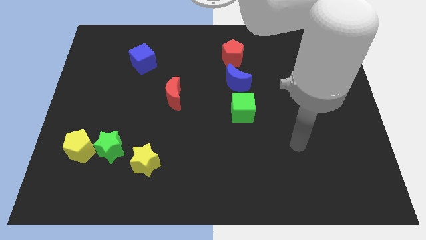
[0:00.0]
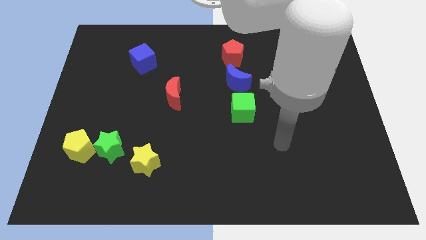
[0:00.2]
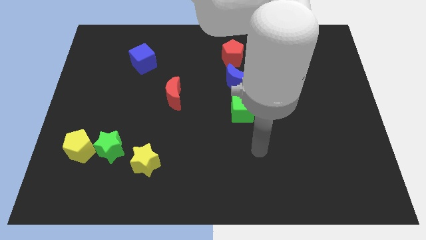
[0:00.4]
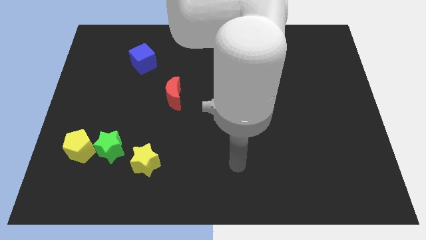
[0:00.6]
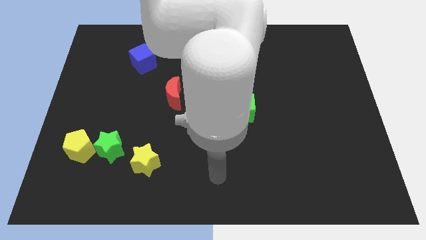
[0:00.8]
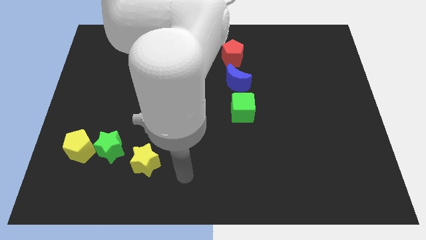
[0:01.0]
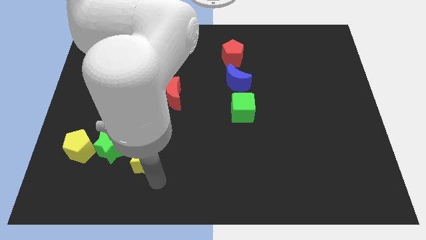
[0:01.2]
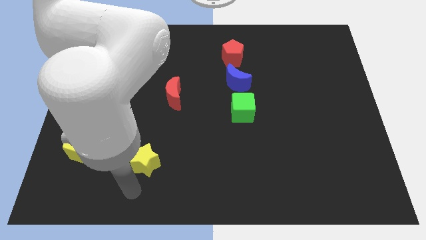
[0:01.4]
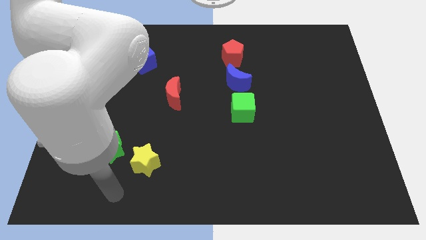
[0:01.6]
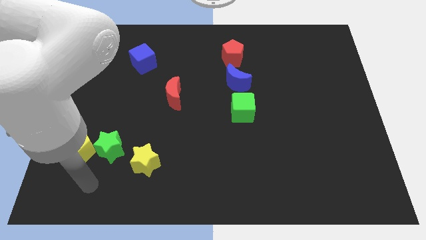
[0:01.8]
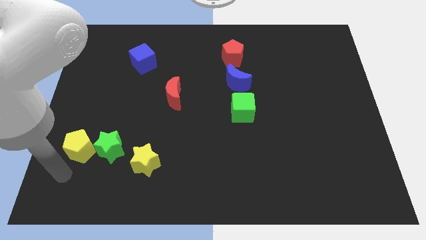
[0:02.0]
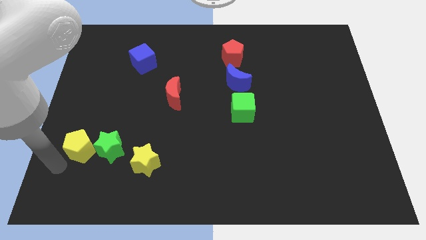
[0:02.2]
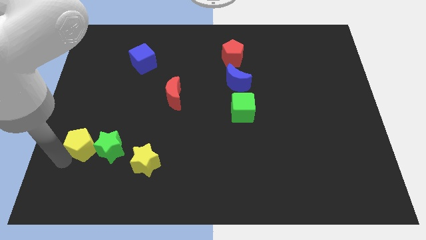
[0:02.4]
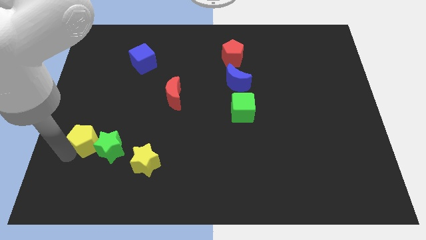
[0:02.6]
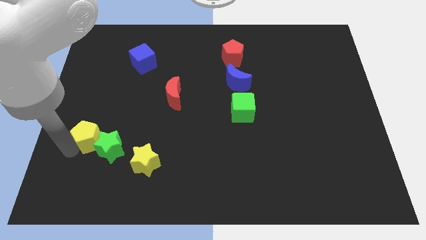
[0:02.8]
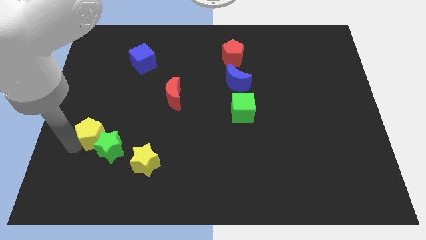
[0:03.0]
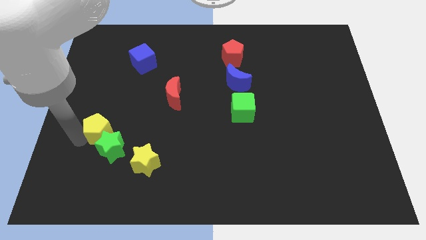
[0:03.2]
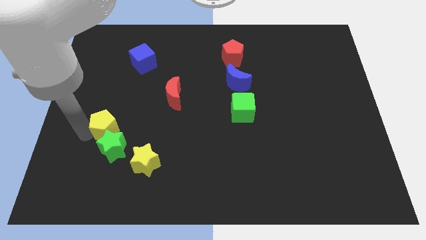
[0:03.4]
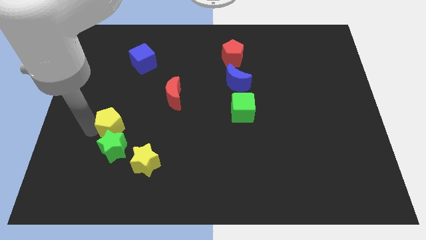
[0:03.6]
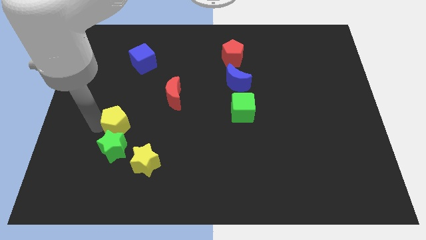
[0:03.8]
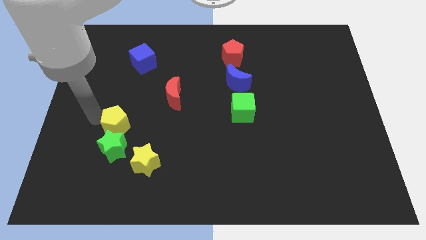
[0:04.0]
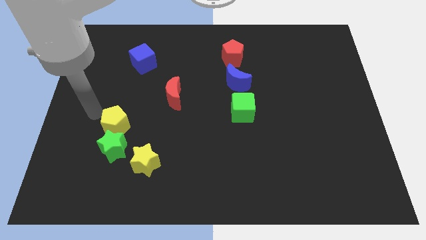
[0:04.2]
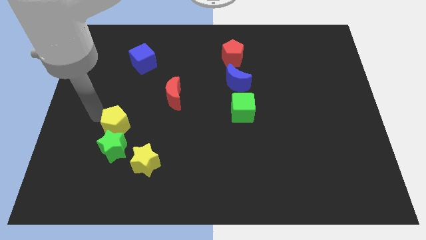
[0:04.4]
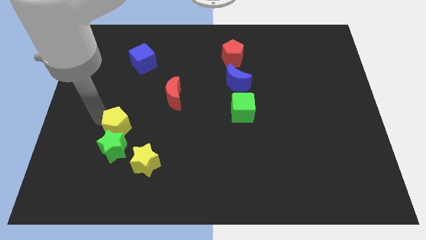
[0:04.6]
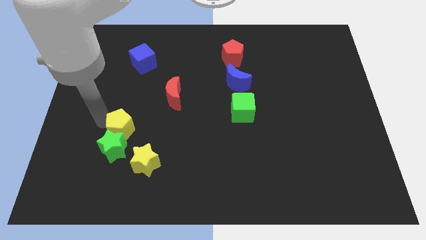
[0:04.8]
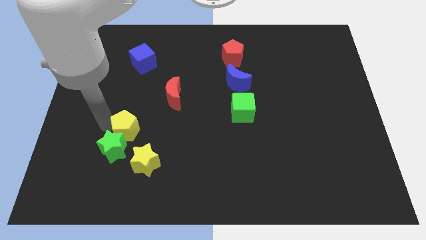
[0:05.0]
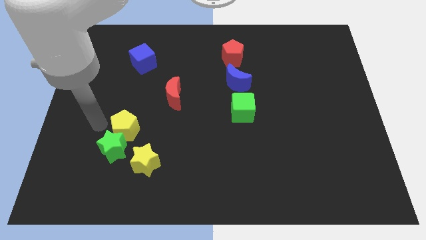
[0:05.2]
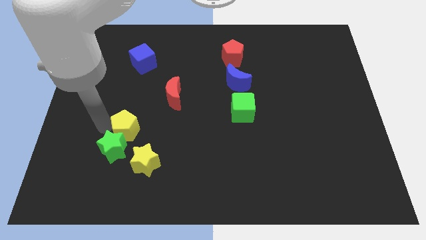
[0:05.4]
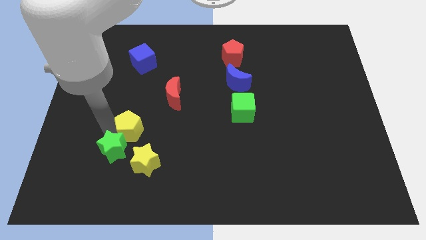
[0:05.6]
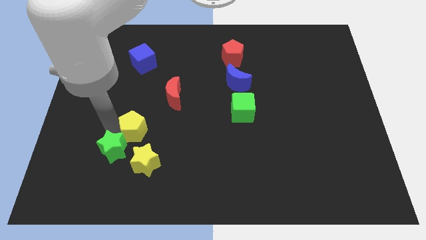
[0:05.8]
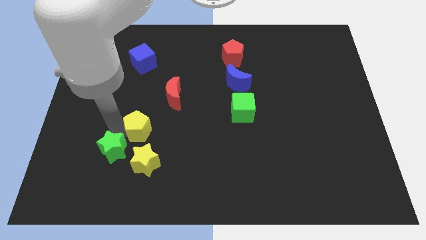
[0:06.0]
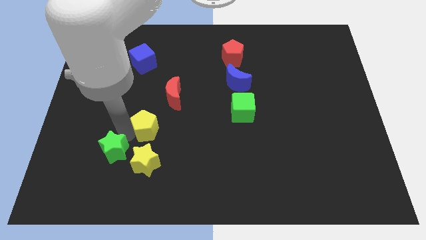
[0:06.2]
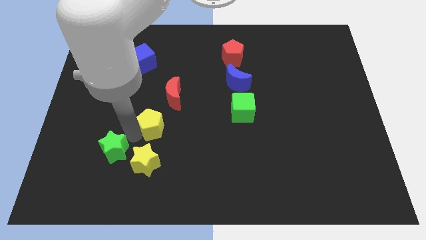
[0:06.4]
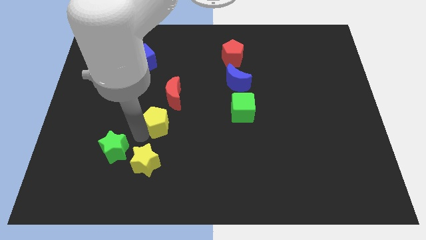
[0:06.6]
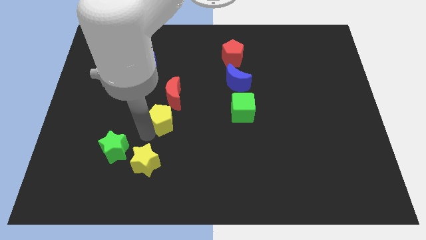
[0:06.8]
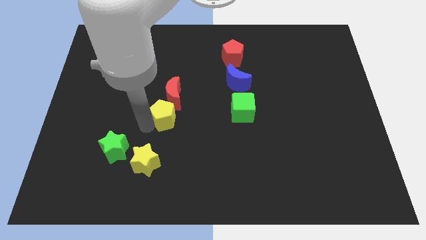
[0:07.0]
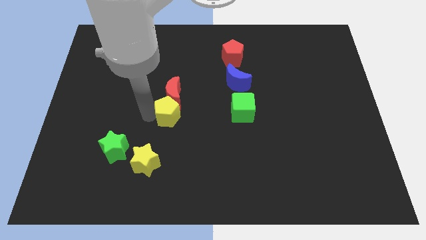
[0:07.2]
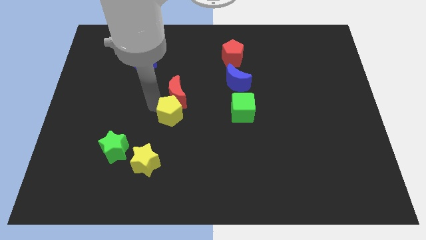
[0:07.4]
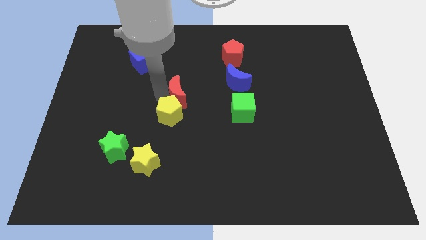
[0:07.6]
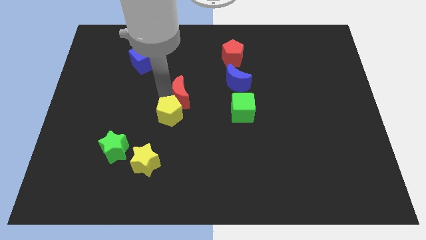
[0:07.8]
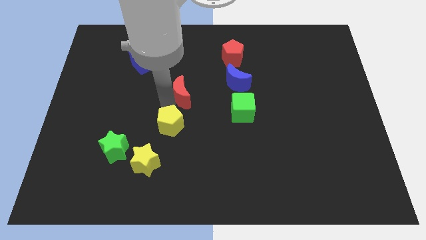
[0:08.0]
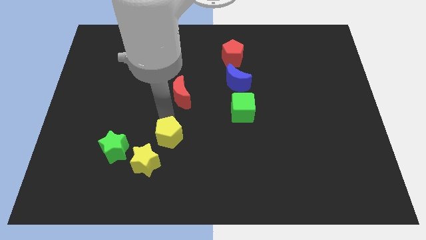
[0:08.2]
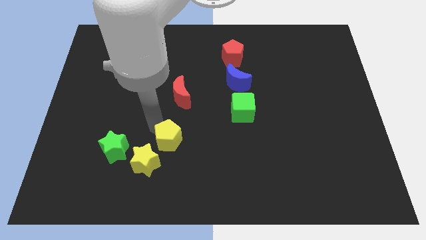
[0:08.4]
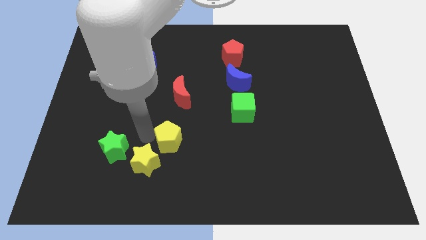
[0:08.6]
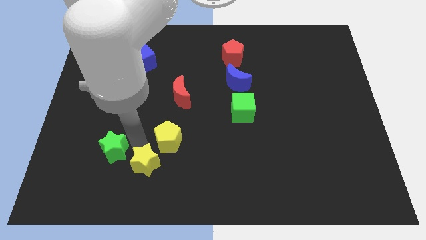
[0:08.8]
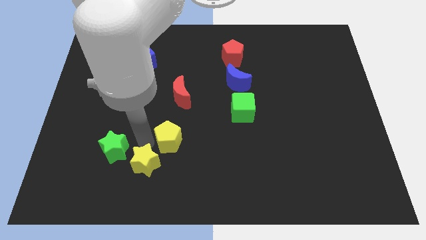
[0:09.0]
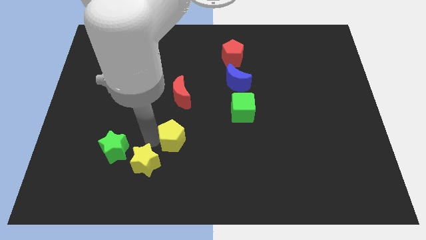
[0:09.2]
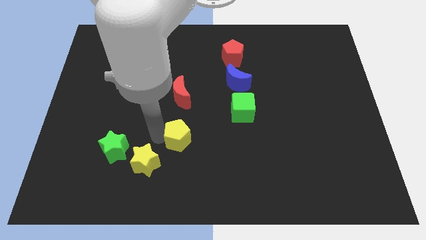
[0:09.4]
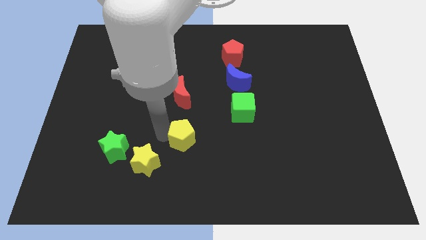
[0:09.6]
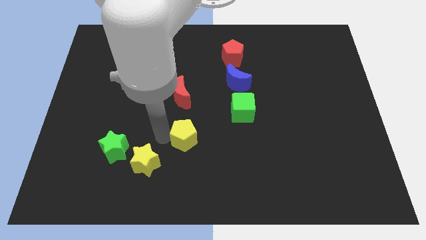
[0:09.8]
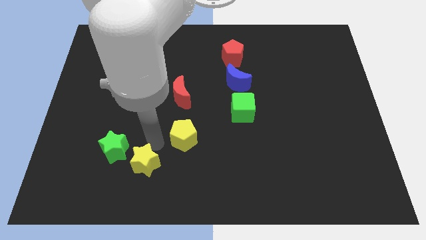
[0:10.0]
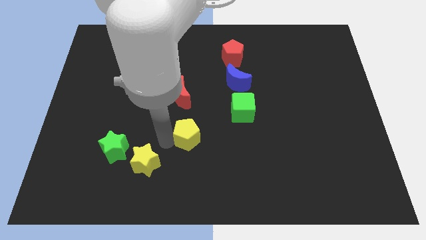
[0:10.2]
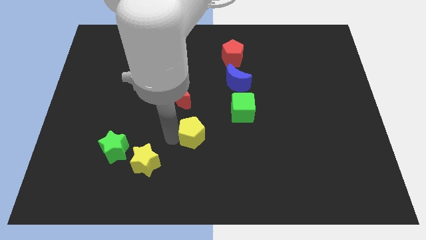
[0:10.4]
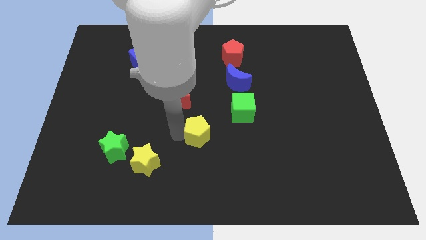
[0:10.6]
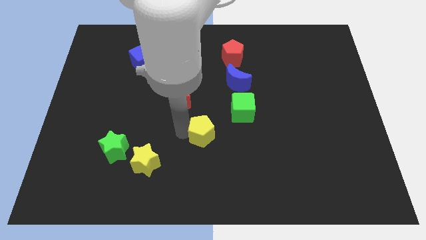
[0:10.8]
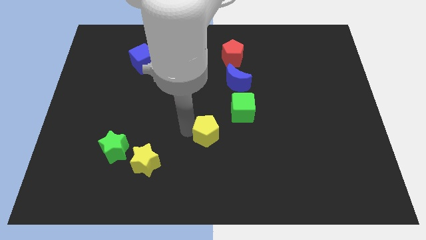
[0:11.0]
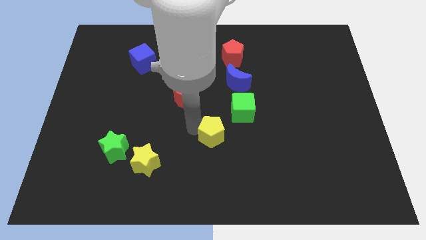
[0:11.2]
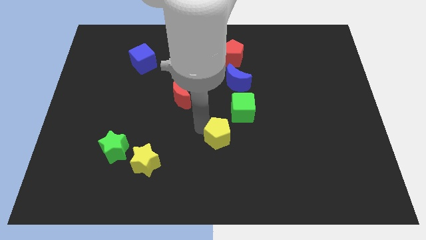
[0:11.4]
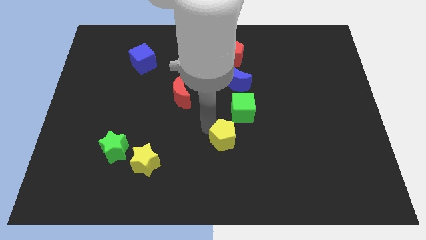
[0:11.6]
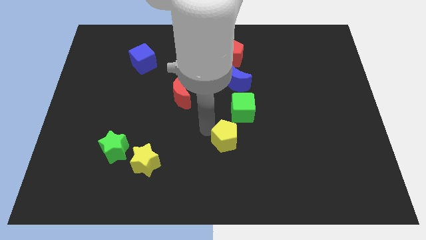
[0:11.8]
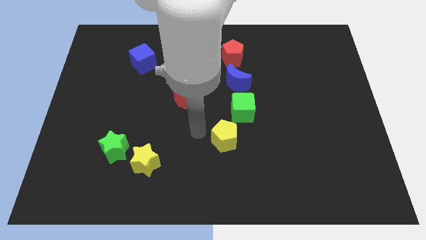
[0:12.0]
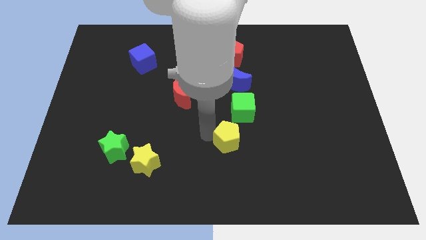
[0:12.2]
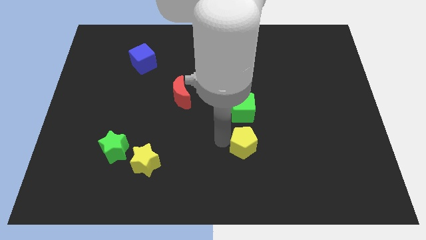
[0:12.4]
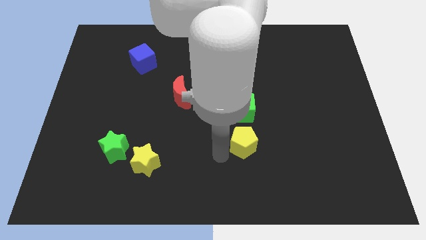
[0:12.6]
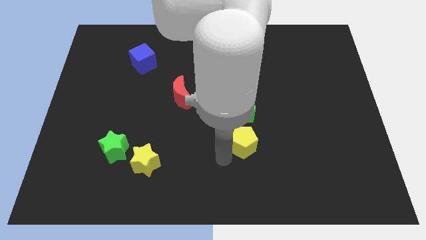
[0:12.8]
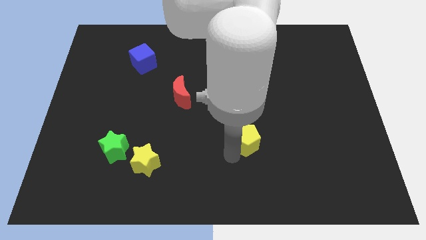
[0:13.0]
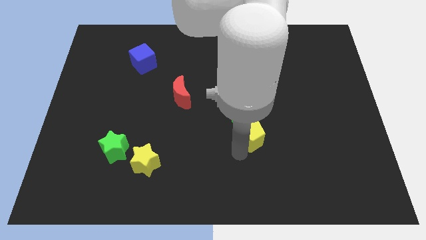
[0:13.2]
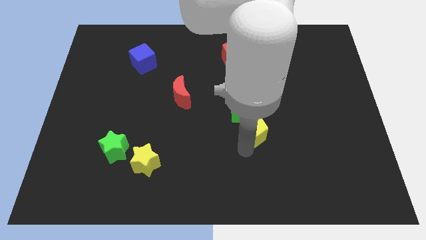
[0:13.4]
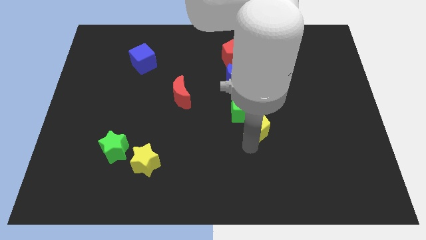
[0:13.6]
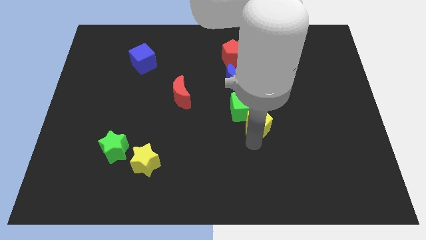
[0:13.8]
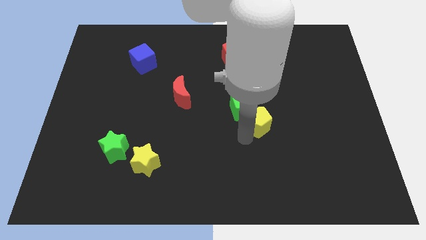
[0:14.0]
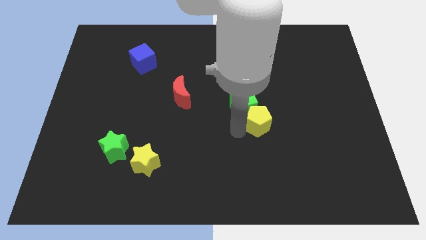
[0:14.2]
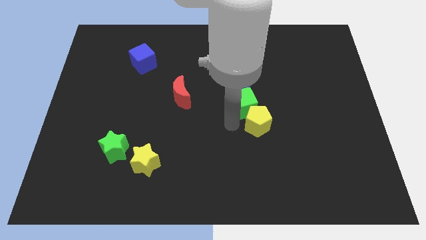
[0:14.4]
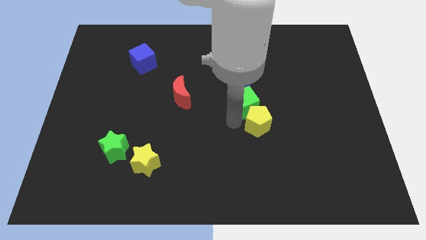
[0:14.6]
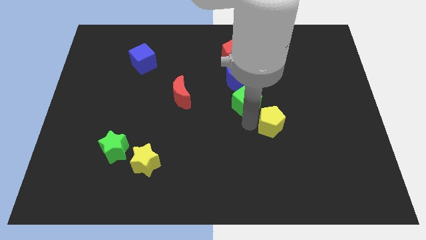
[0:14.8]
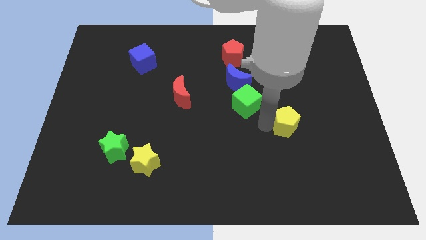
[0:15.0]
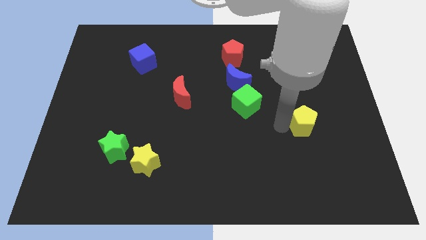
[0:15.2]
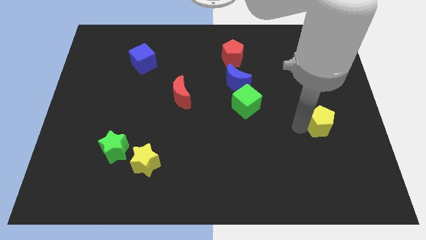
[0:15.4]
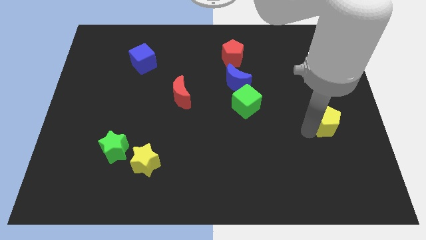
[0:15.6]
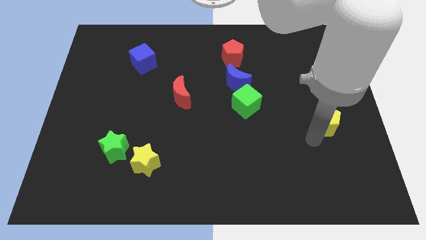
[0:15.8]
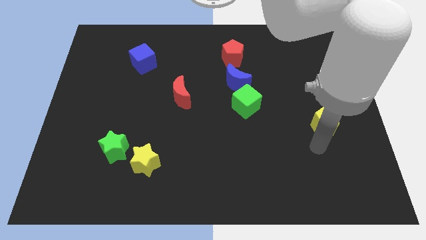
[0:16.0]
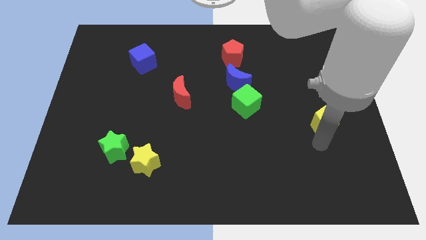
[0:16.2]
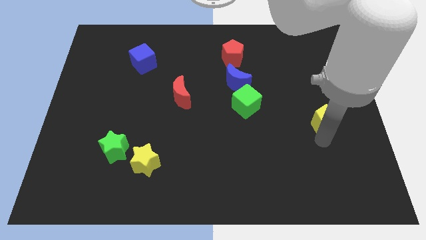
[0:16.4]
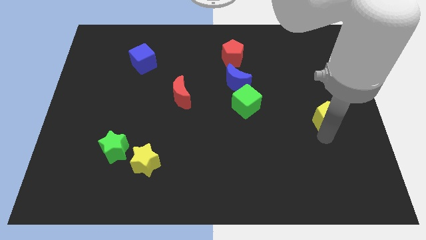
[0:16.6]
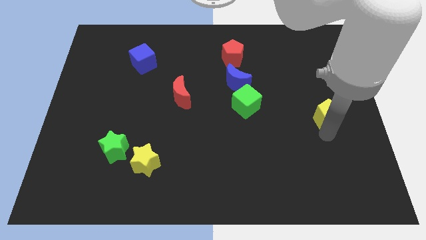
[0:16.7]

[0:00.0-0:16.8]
slide the yellow pentagon to the center right
